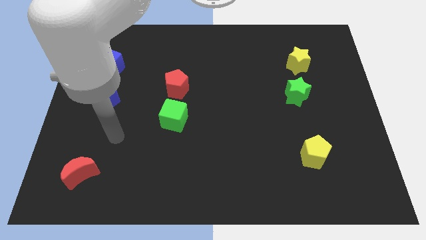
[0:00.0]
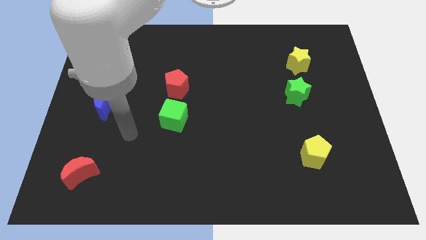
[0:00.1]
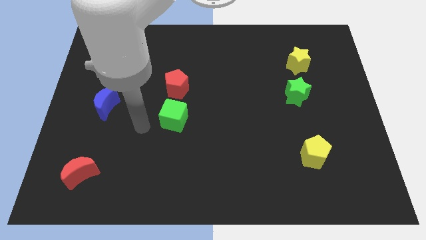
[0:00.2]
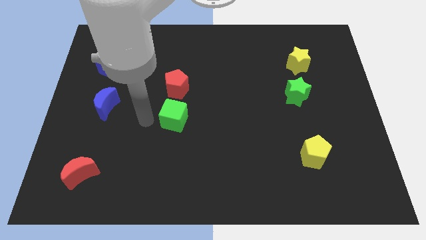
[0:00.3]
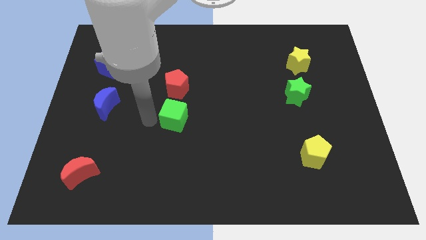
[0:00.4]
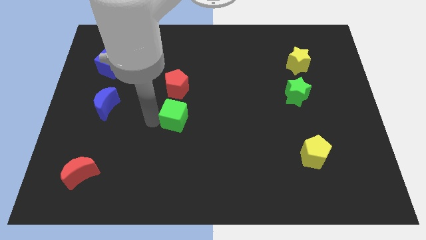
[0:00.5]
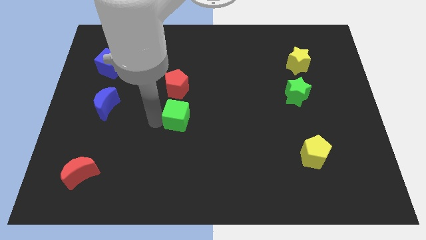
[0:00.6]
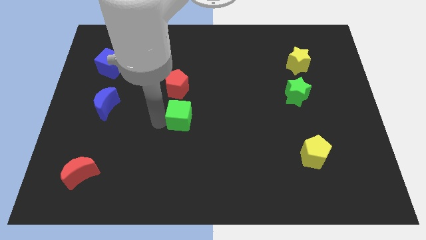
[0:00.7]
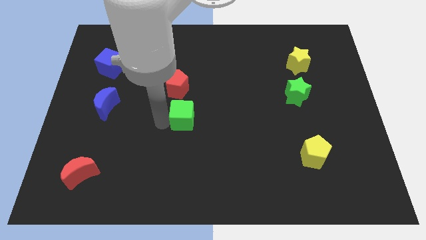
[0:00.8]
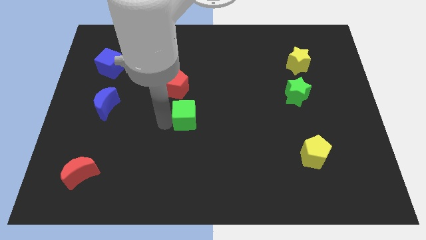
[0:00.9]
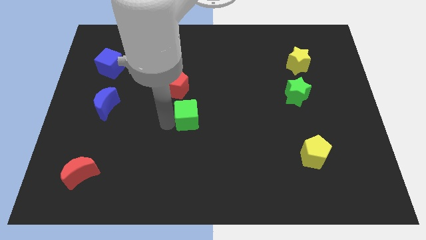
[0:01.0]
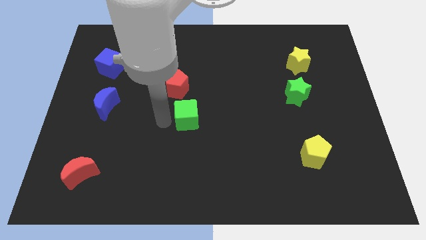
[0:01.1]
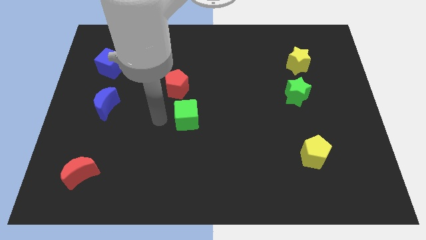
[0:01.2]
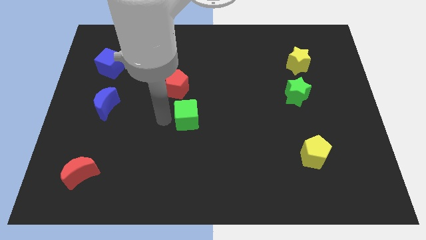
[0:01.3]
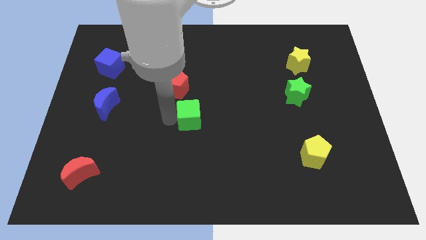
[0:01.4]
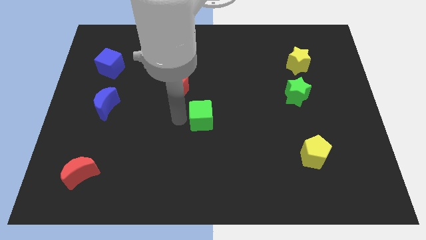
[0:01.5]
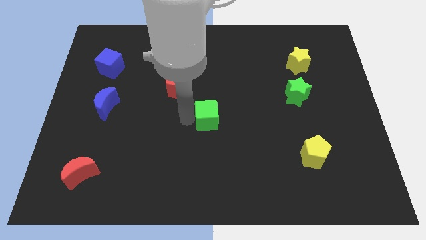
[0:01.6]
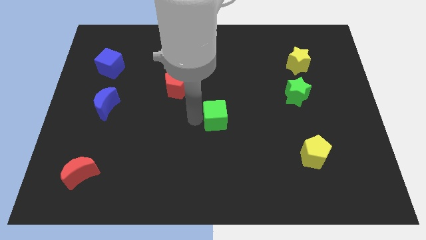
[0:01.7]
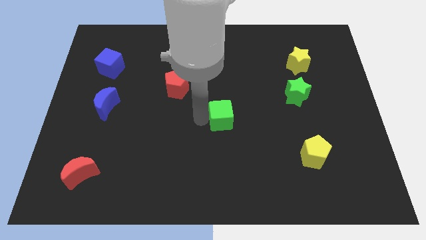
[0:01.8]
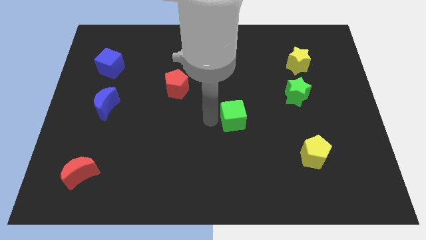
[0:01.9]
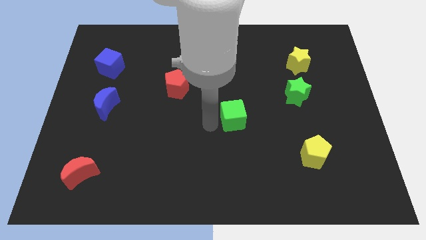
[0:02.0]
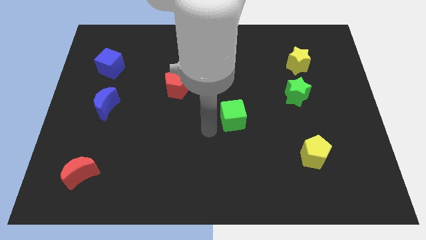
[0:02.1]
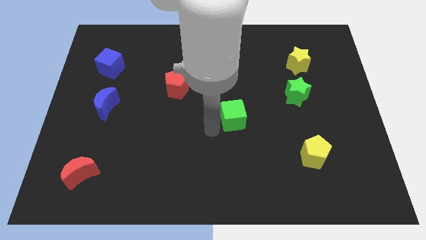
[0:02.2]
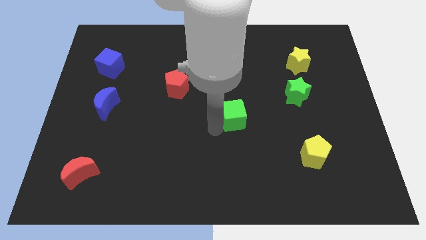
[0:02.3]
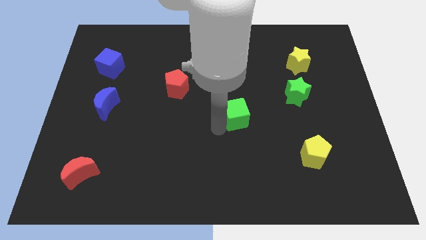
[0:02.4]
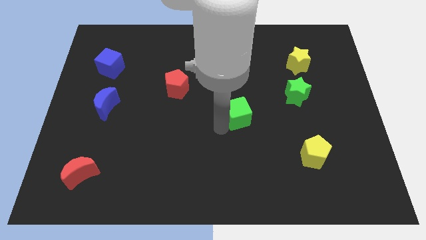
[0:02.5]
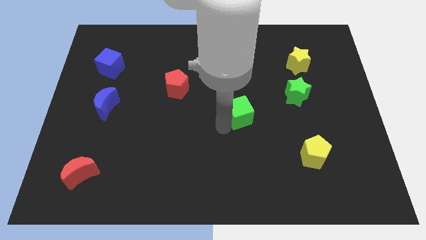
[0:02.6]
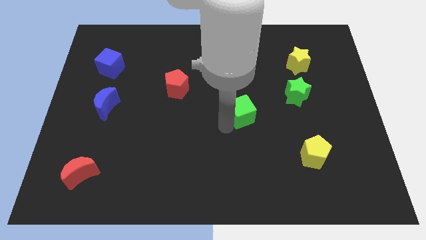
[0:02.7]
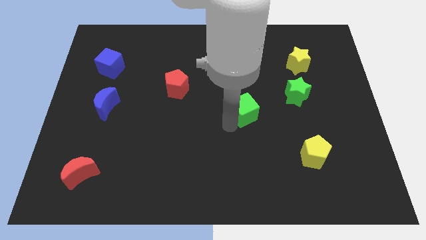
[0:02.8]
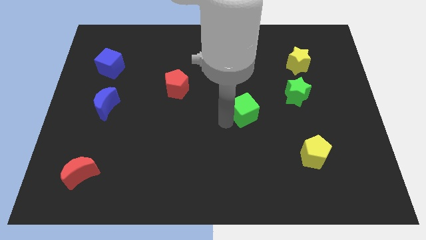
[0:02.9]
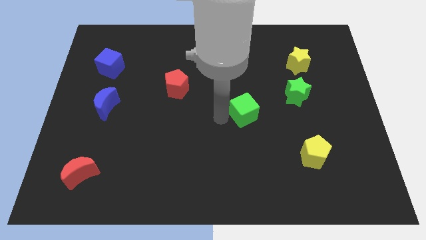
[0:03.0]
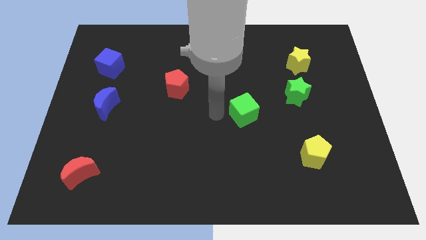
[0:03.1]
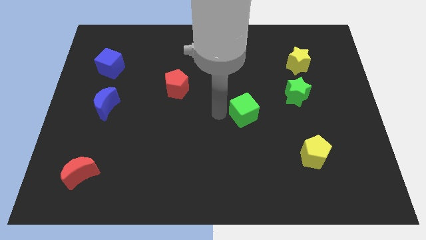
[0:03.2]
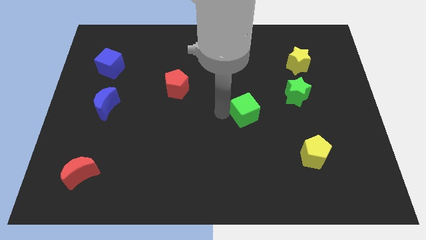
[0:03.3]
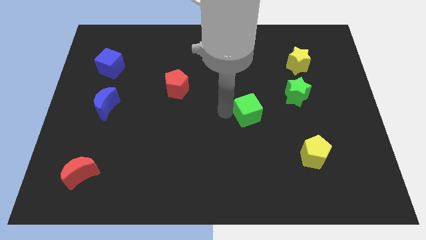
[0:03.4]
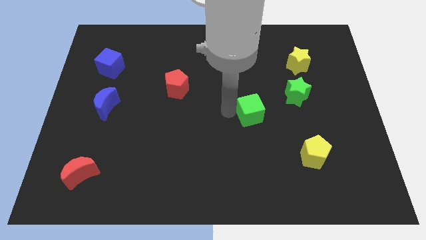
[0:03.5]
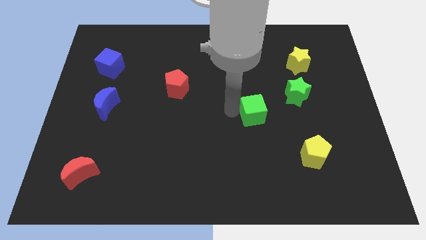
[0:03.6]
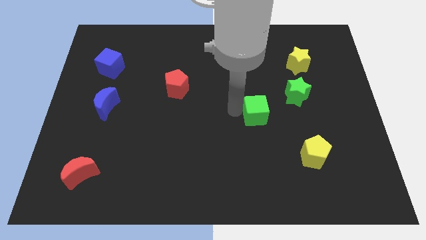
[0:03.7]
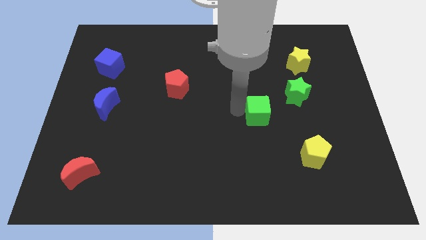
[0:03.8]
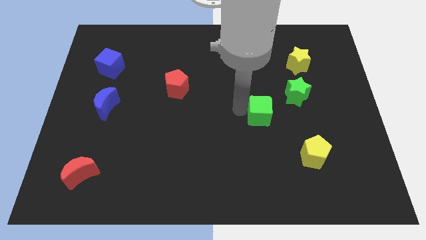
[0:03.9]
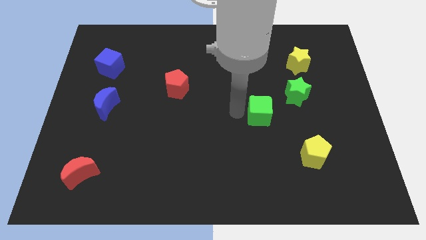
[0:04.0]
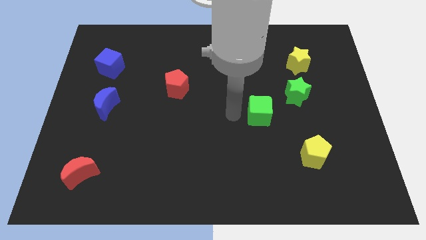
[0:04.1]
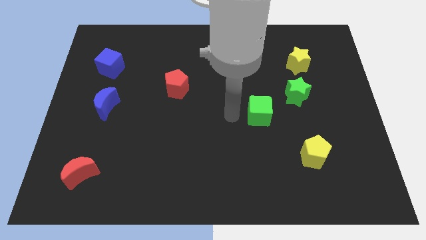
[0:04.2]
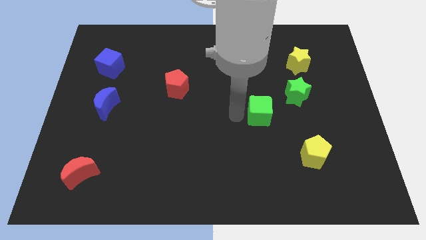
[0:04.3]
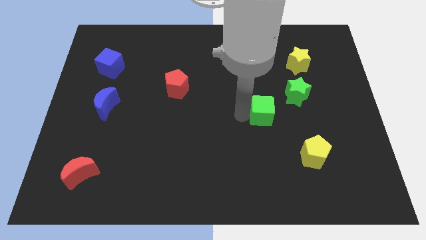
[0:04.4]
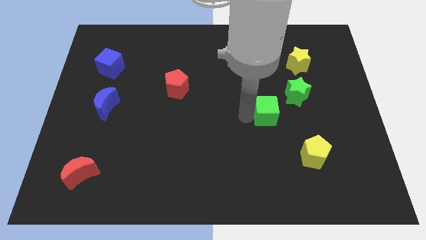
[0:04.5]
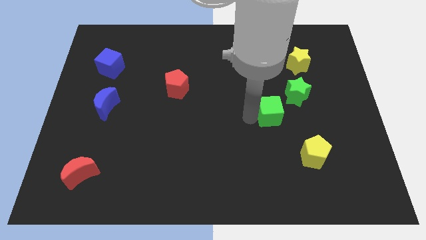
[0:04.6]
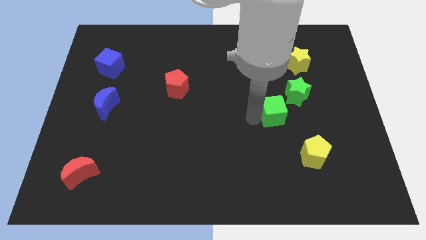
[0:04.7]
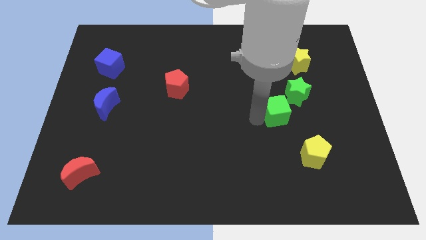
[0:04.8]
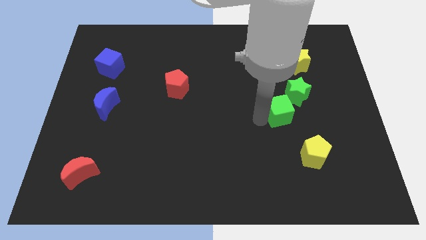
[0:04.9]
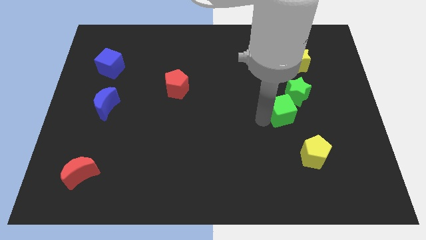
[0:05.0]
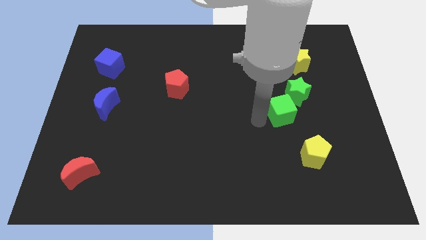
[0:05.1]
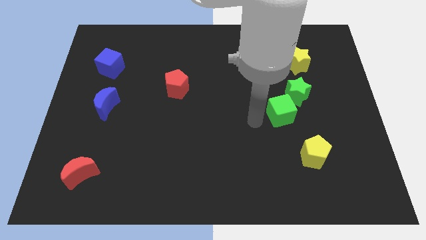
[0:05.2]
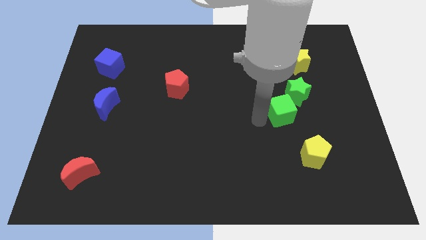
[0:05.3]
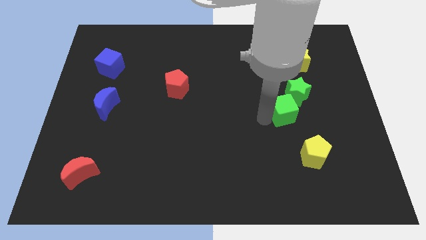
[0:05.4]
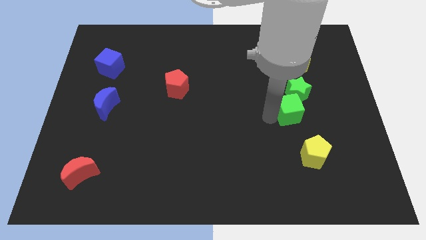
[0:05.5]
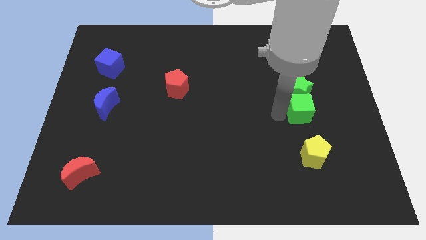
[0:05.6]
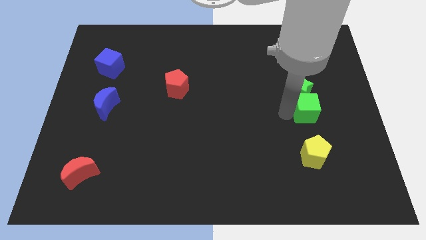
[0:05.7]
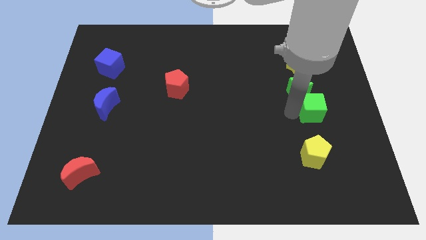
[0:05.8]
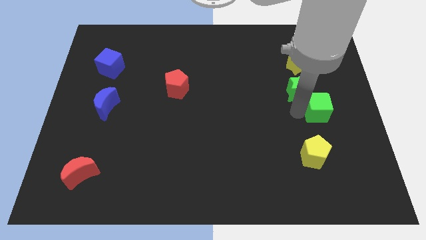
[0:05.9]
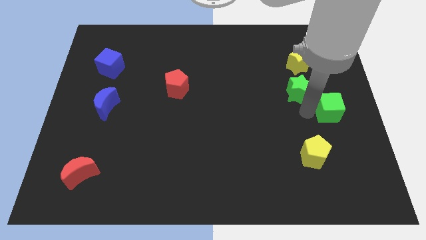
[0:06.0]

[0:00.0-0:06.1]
push the green cube to the center right

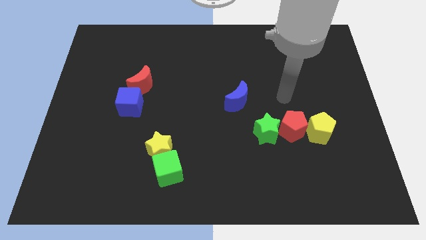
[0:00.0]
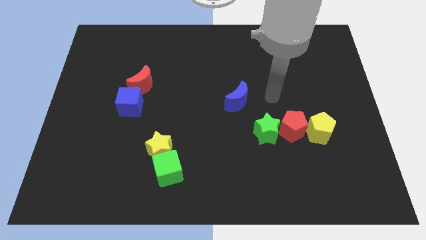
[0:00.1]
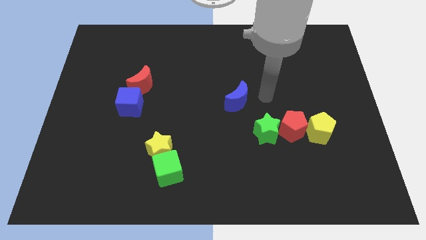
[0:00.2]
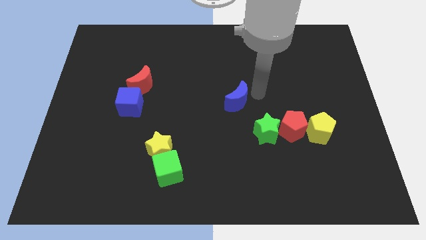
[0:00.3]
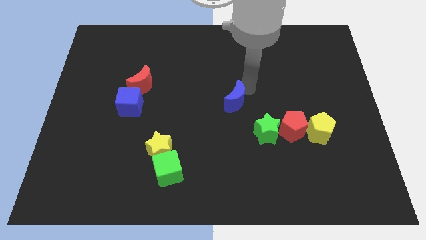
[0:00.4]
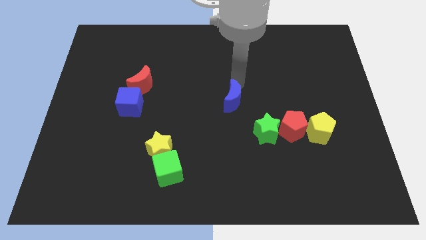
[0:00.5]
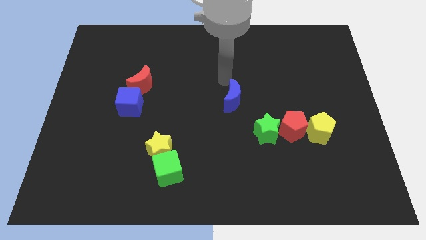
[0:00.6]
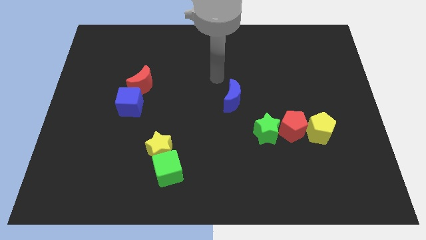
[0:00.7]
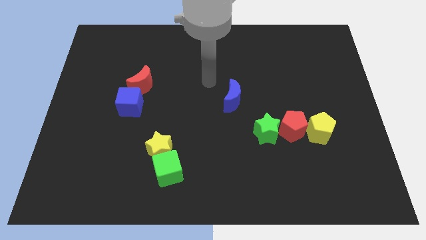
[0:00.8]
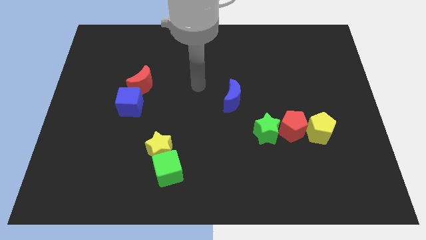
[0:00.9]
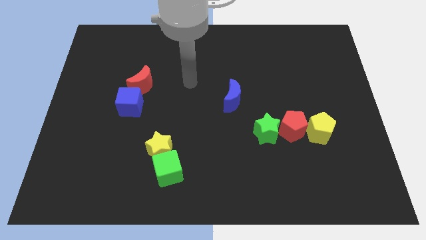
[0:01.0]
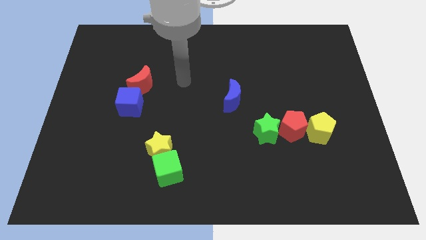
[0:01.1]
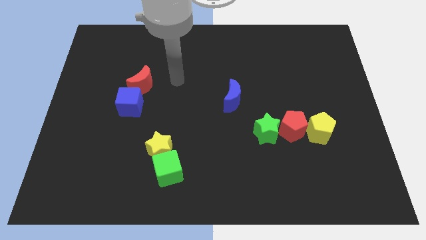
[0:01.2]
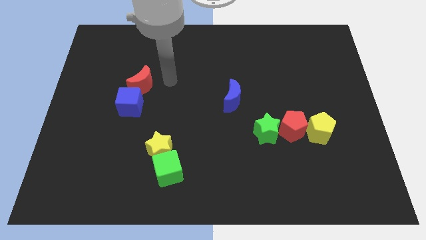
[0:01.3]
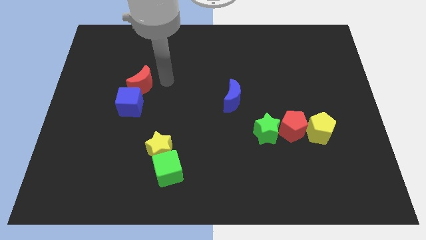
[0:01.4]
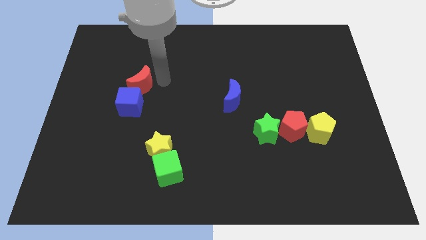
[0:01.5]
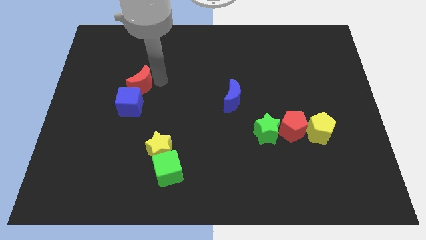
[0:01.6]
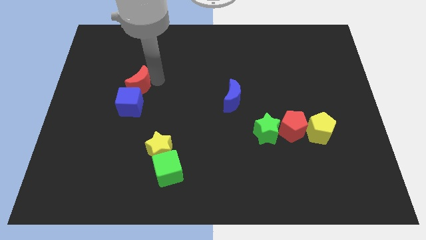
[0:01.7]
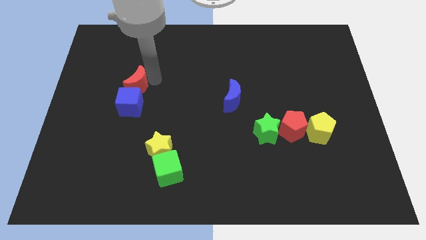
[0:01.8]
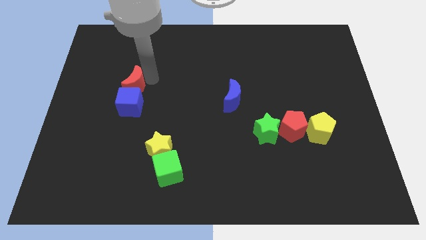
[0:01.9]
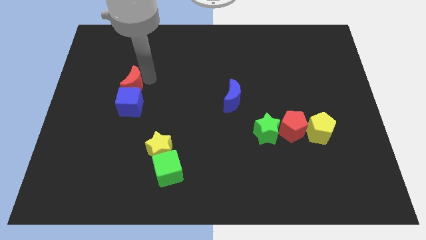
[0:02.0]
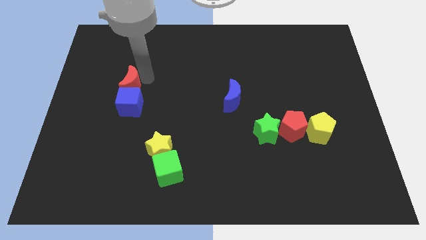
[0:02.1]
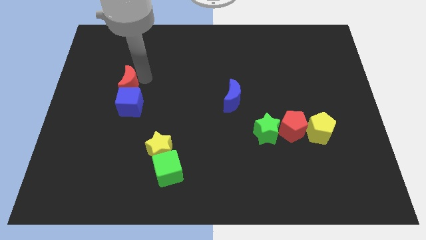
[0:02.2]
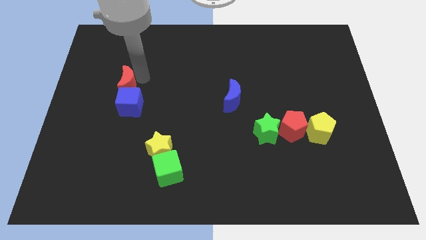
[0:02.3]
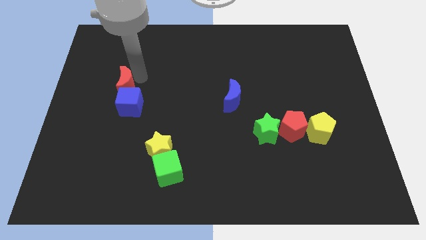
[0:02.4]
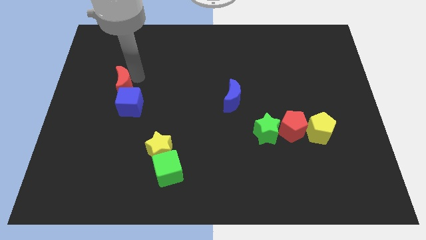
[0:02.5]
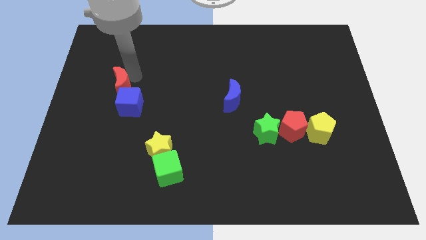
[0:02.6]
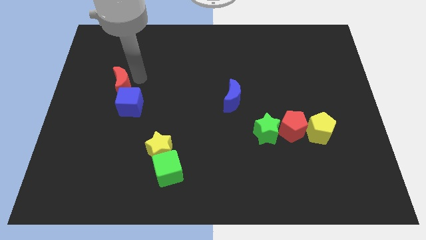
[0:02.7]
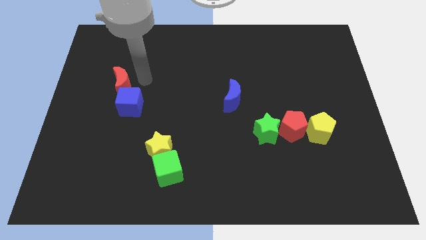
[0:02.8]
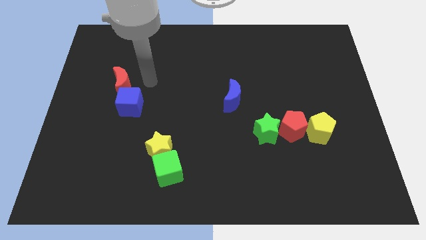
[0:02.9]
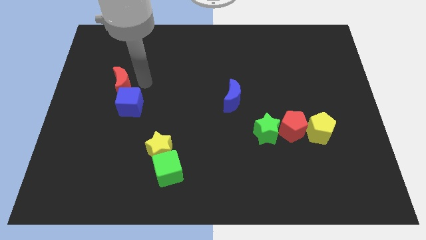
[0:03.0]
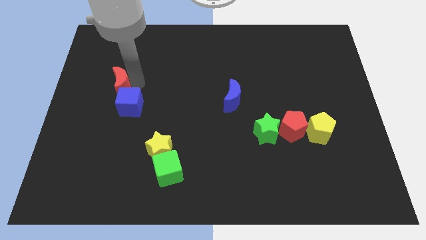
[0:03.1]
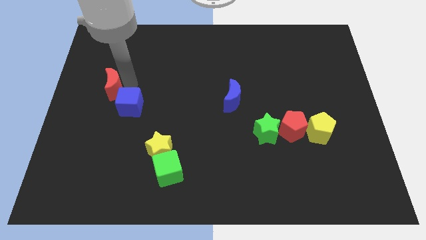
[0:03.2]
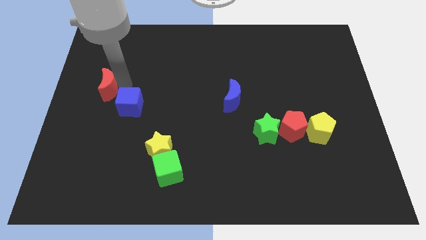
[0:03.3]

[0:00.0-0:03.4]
slide the red moon to the center left
